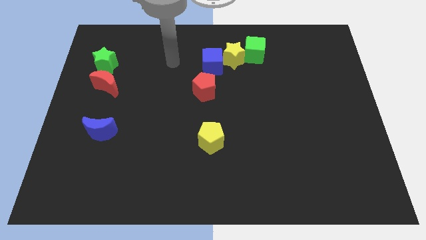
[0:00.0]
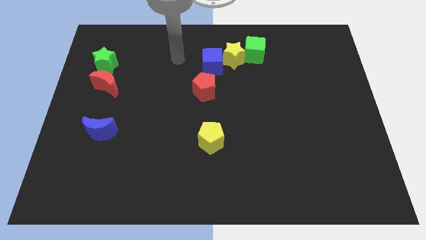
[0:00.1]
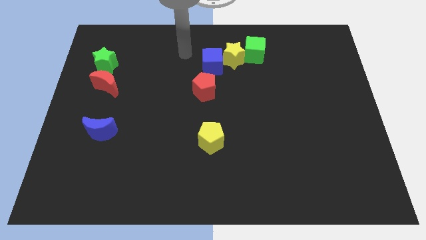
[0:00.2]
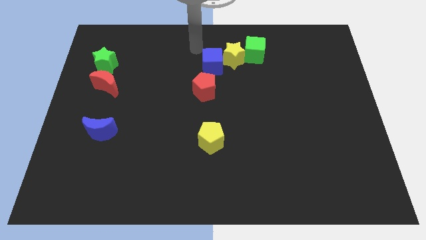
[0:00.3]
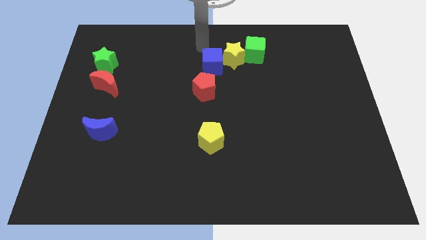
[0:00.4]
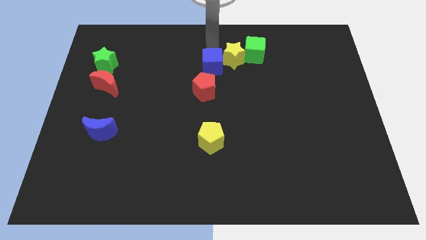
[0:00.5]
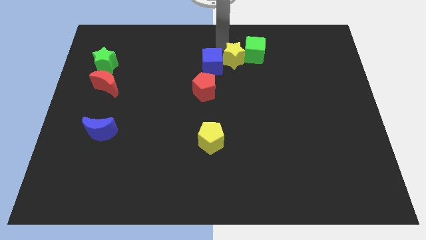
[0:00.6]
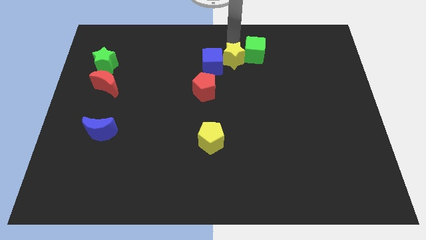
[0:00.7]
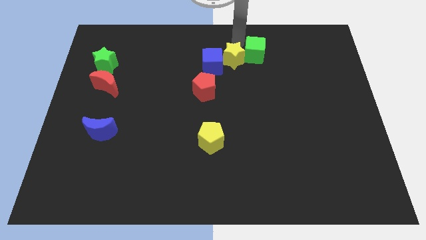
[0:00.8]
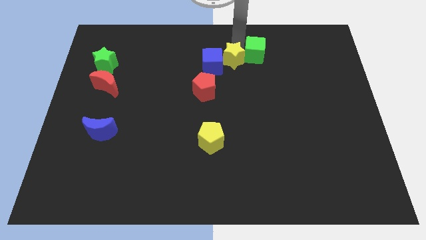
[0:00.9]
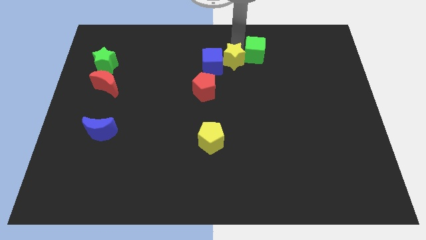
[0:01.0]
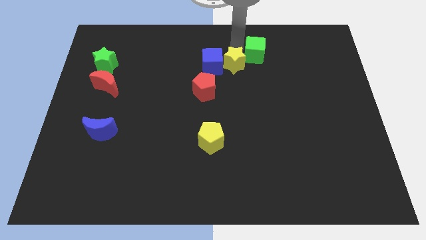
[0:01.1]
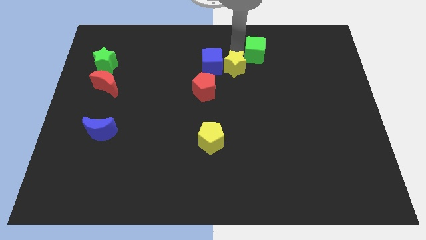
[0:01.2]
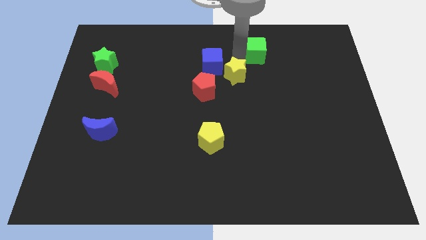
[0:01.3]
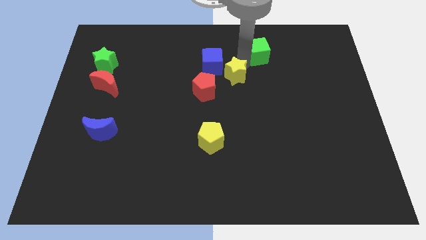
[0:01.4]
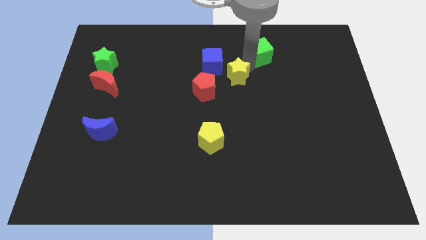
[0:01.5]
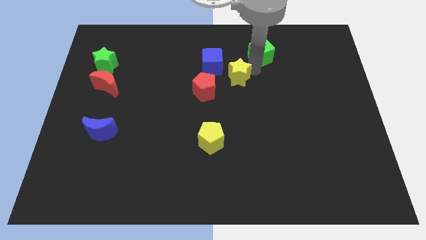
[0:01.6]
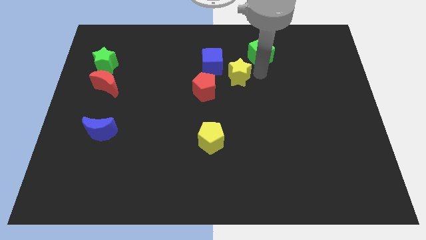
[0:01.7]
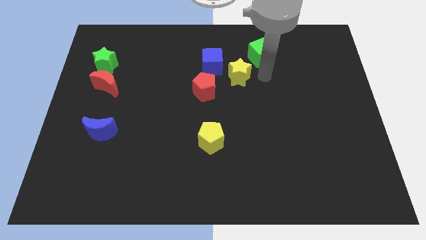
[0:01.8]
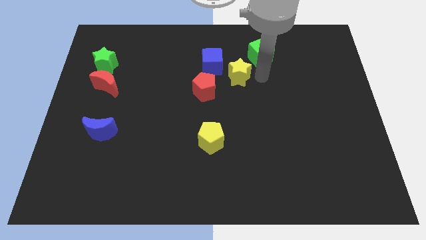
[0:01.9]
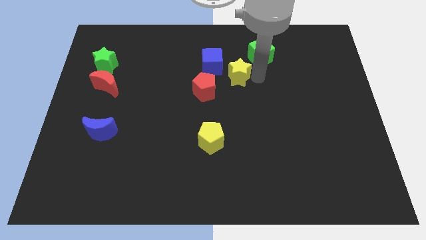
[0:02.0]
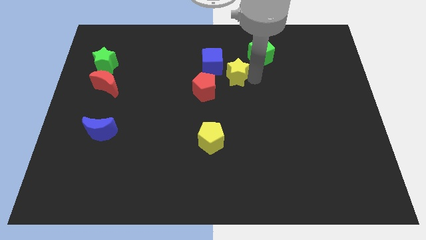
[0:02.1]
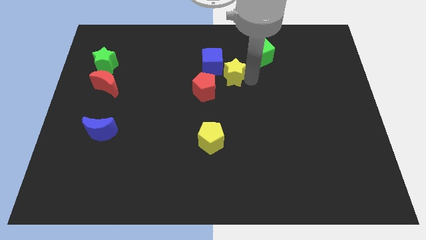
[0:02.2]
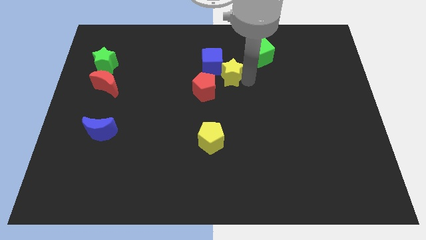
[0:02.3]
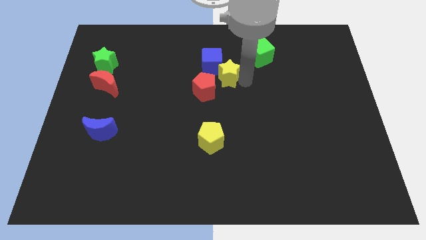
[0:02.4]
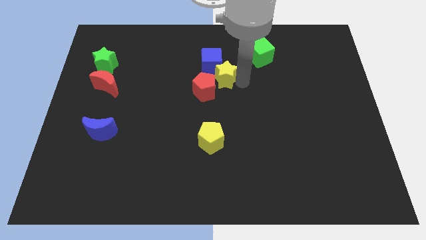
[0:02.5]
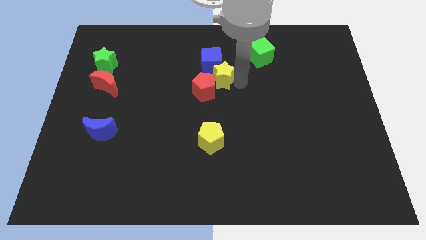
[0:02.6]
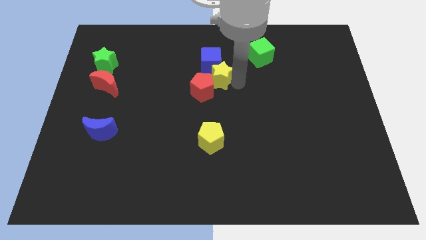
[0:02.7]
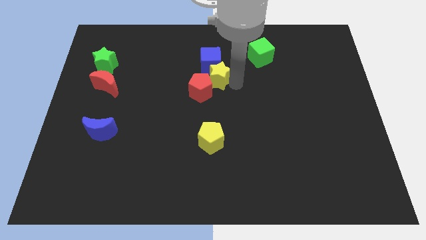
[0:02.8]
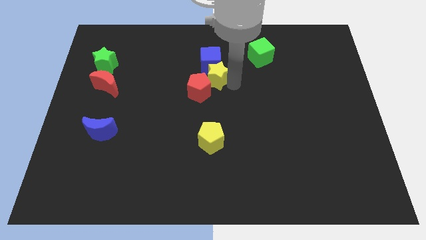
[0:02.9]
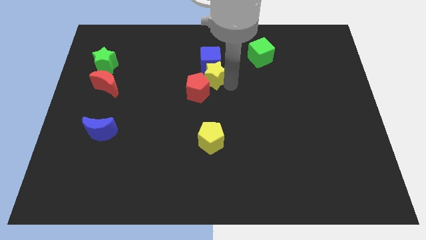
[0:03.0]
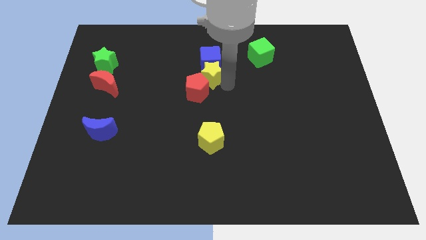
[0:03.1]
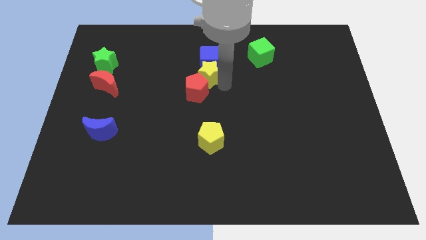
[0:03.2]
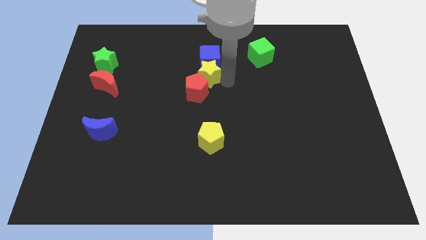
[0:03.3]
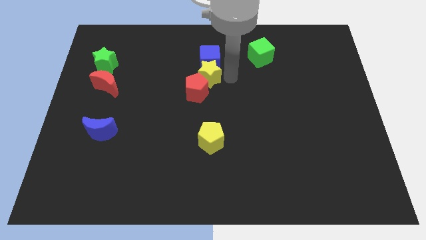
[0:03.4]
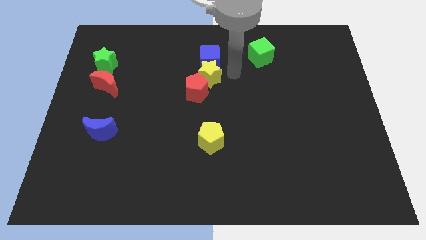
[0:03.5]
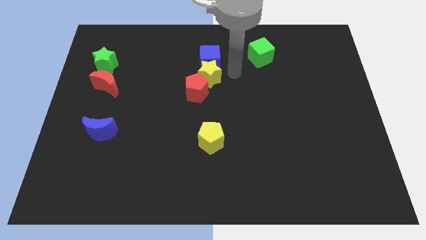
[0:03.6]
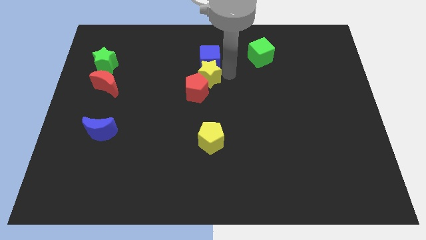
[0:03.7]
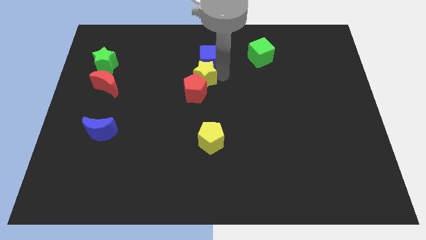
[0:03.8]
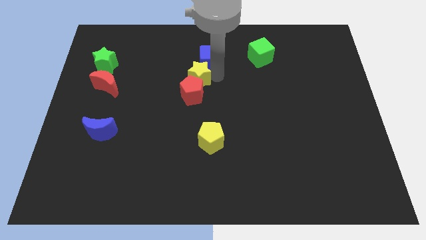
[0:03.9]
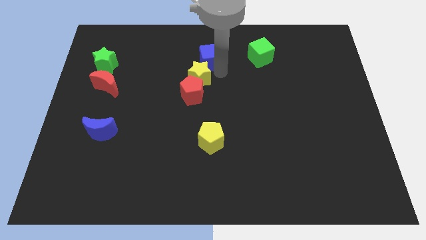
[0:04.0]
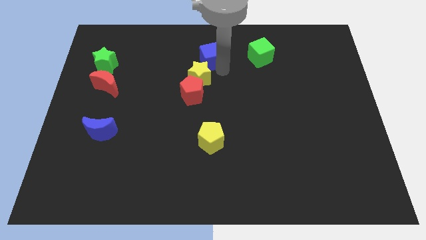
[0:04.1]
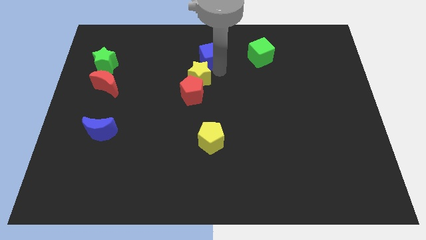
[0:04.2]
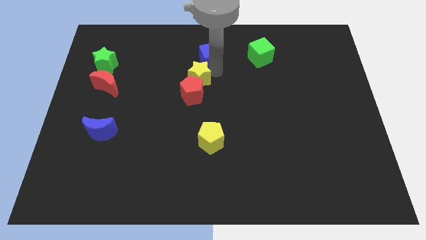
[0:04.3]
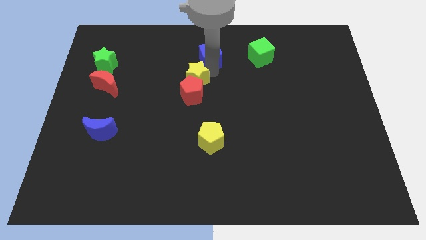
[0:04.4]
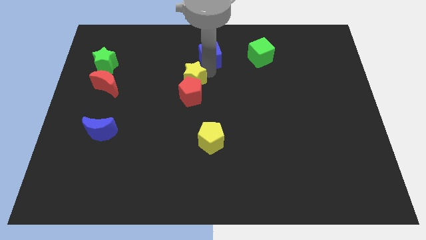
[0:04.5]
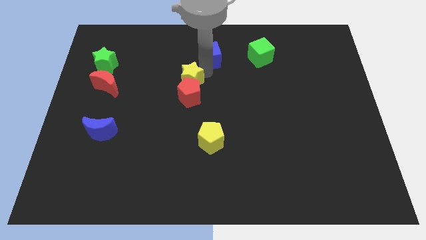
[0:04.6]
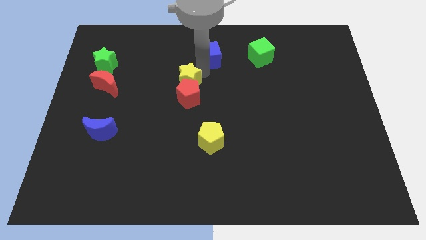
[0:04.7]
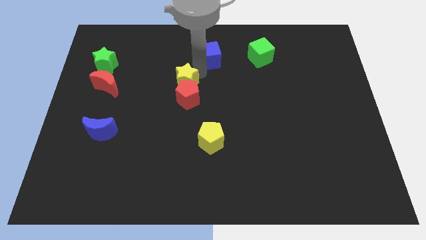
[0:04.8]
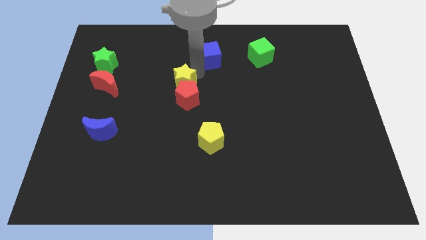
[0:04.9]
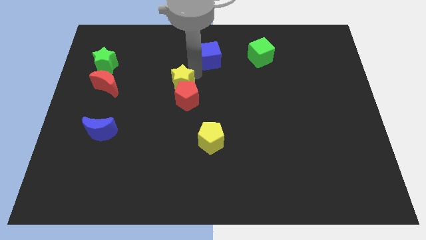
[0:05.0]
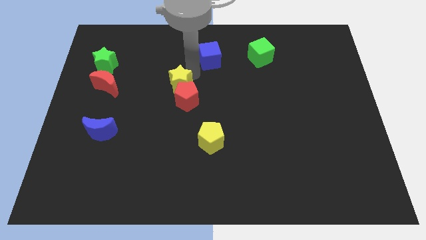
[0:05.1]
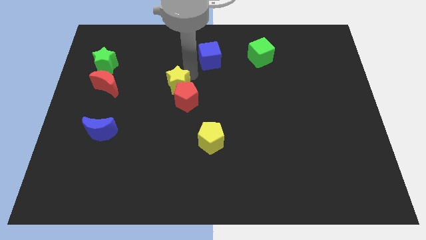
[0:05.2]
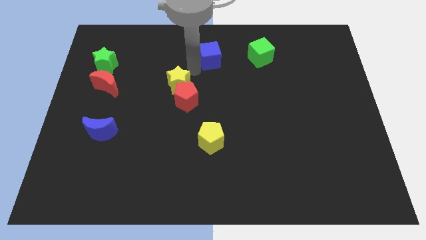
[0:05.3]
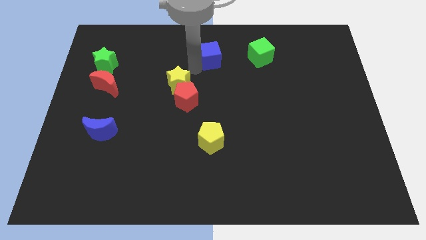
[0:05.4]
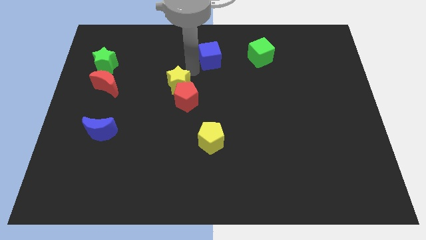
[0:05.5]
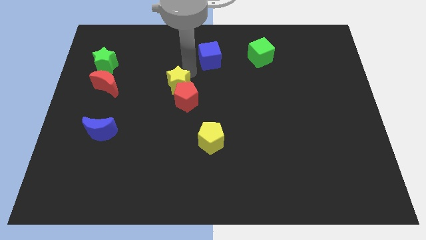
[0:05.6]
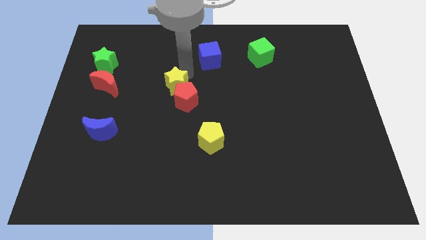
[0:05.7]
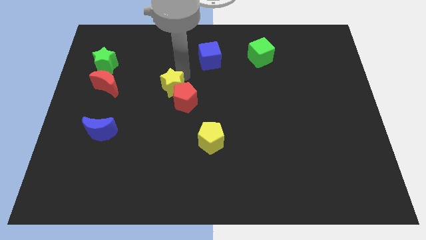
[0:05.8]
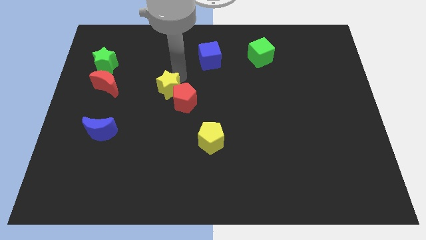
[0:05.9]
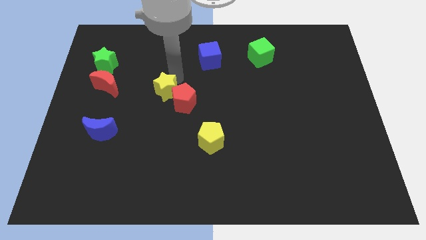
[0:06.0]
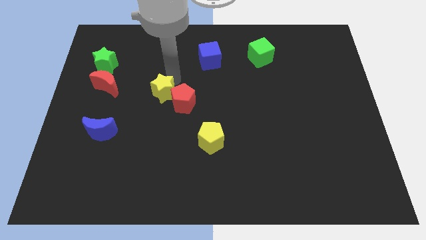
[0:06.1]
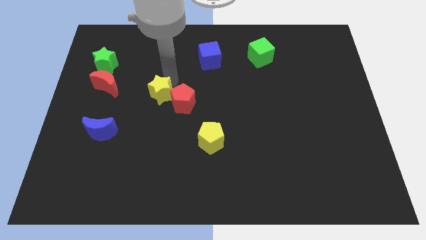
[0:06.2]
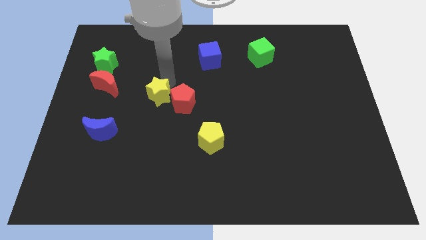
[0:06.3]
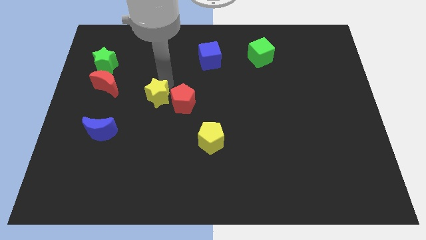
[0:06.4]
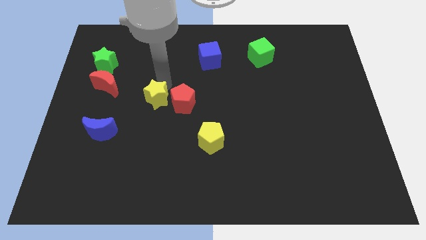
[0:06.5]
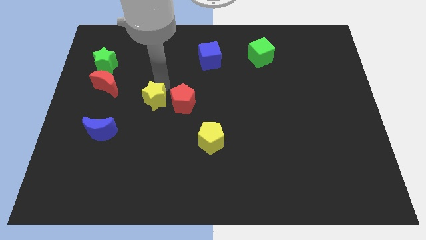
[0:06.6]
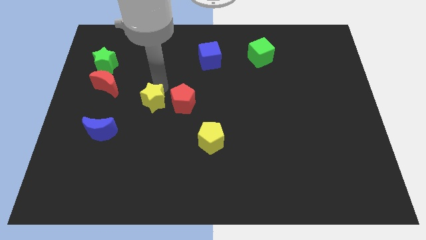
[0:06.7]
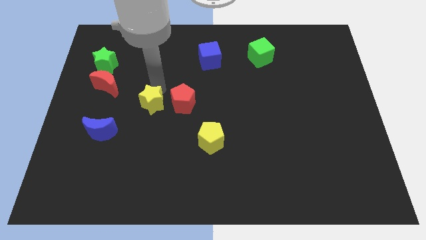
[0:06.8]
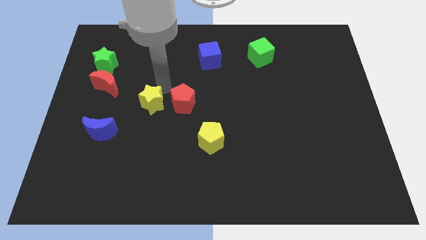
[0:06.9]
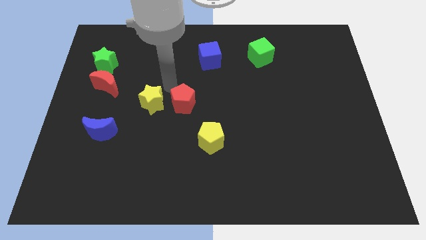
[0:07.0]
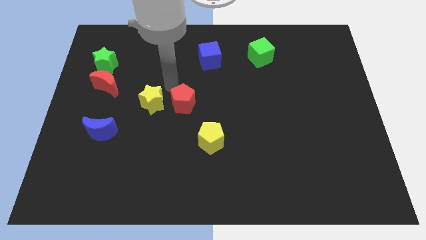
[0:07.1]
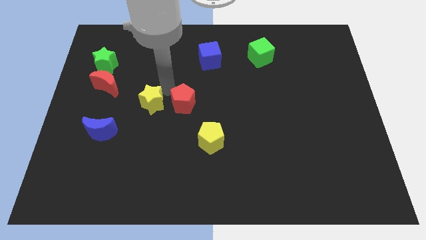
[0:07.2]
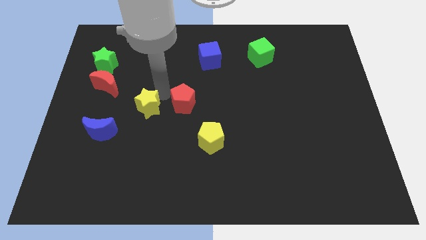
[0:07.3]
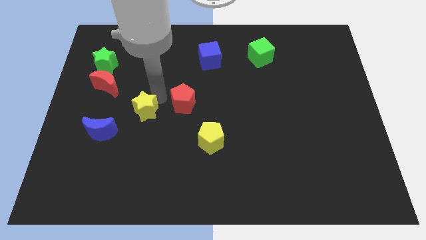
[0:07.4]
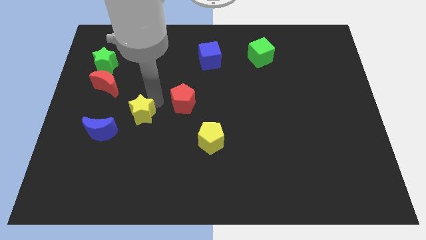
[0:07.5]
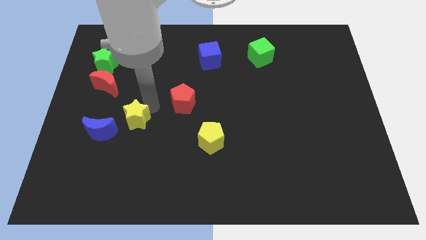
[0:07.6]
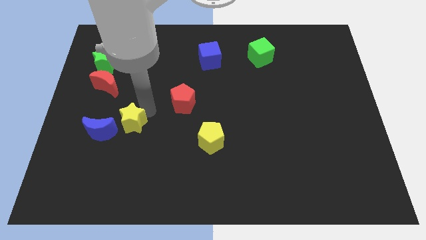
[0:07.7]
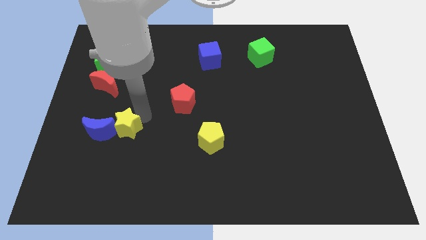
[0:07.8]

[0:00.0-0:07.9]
move the yellow star to the blue moon
